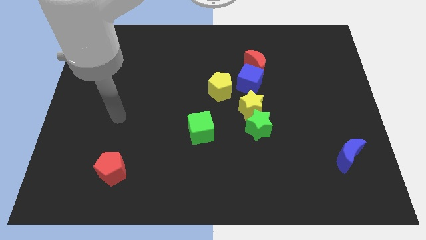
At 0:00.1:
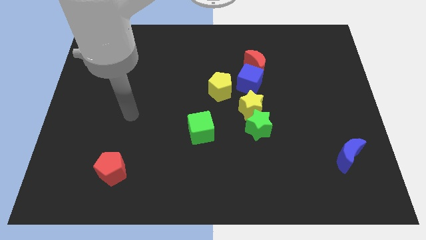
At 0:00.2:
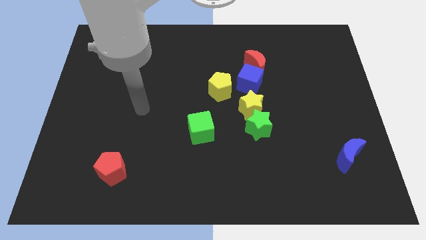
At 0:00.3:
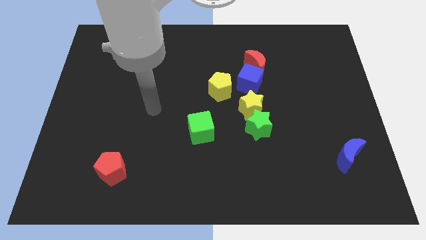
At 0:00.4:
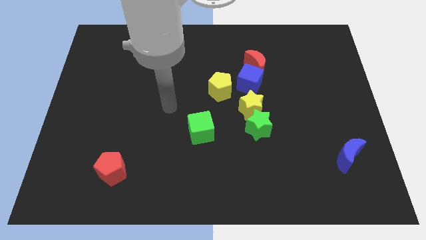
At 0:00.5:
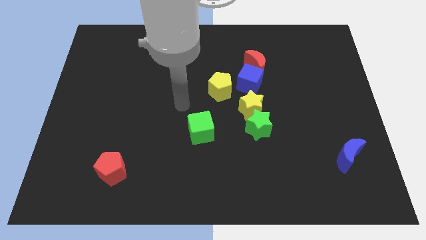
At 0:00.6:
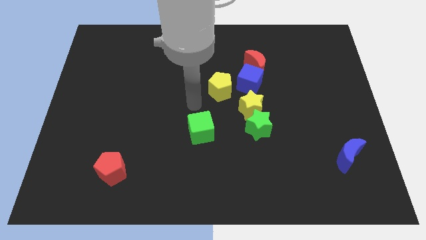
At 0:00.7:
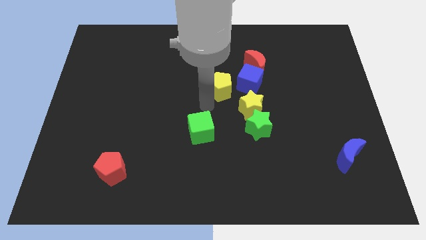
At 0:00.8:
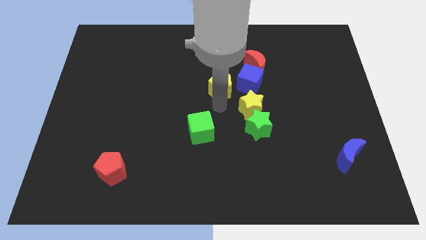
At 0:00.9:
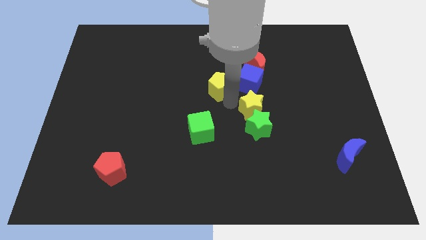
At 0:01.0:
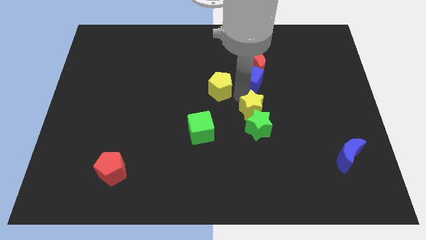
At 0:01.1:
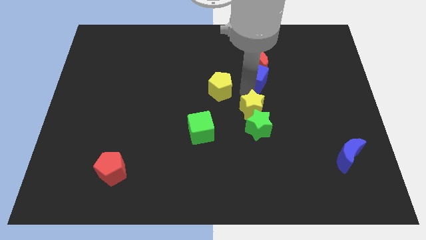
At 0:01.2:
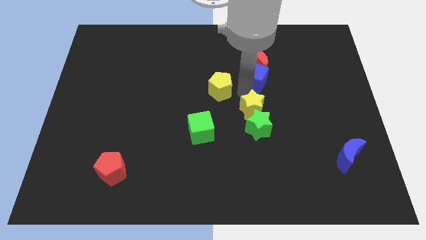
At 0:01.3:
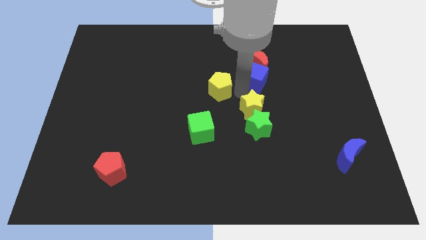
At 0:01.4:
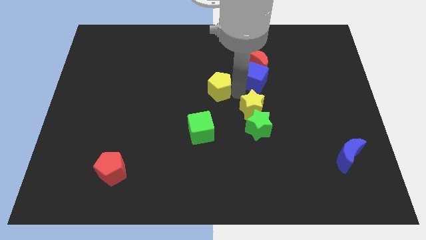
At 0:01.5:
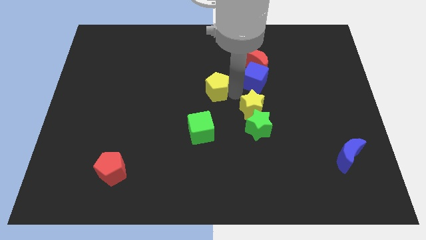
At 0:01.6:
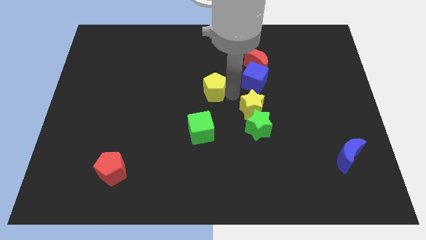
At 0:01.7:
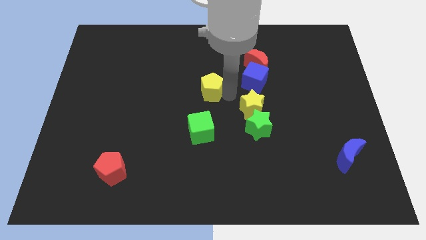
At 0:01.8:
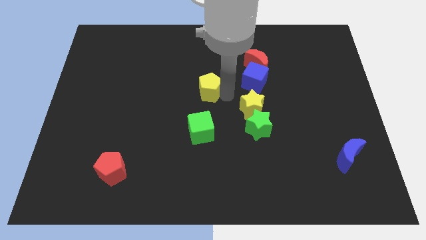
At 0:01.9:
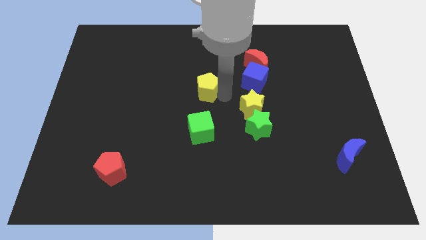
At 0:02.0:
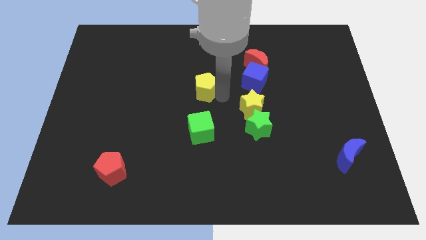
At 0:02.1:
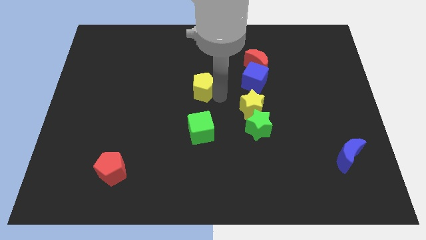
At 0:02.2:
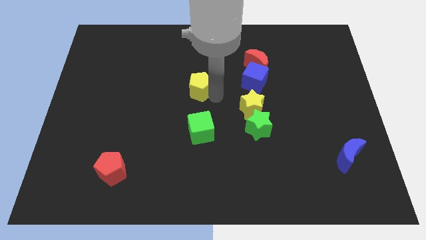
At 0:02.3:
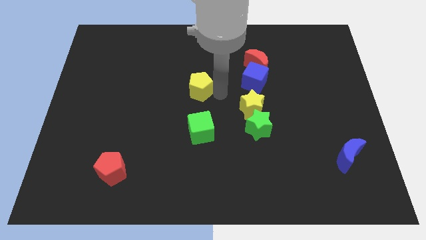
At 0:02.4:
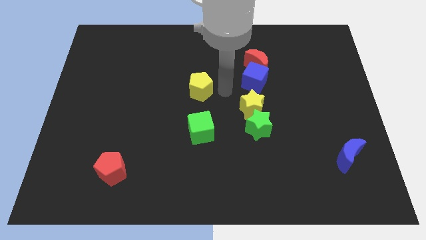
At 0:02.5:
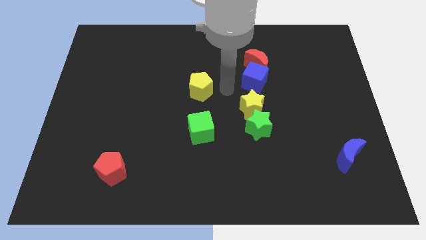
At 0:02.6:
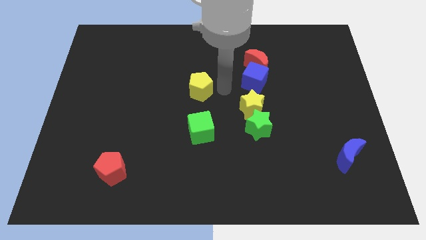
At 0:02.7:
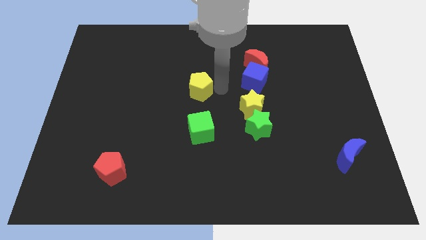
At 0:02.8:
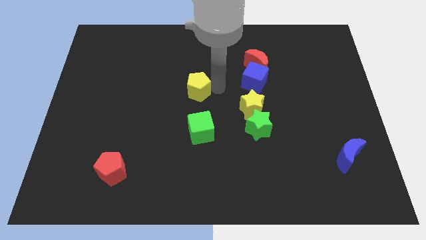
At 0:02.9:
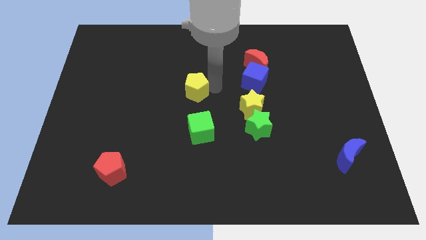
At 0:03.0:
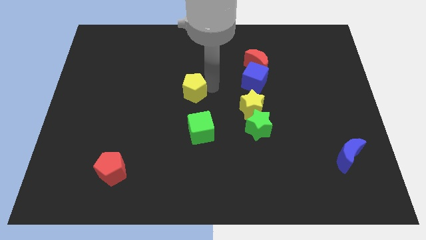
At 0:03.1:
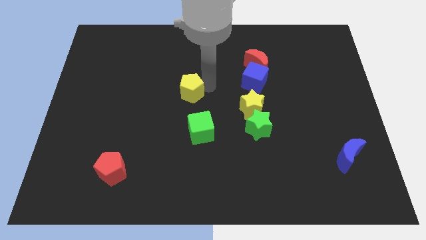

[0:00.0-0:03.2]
slightly slide the yellow pentagon to the left

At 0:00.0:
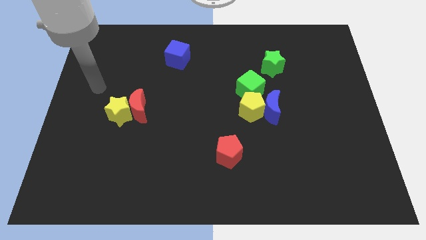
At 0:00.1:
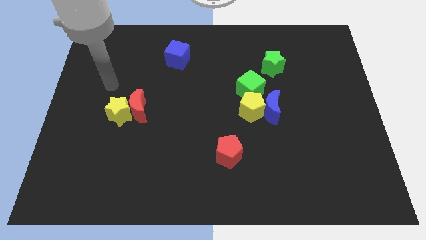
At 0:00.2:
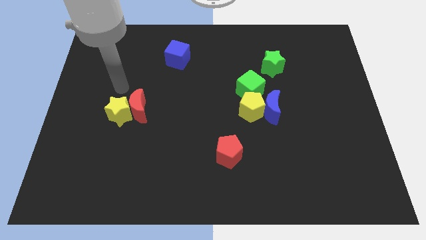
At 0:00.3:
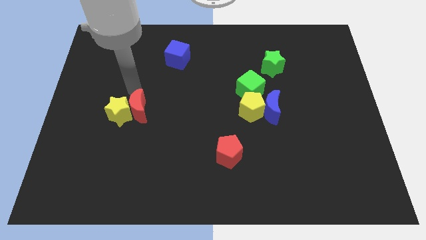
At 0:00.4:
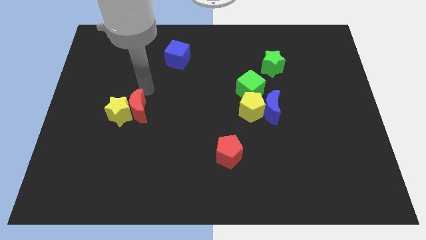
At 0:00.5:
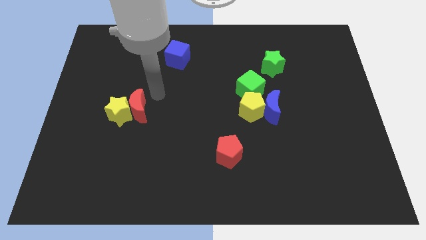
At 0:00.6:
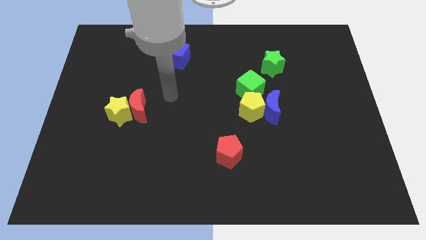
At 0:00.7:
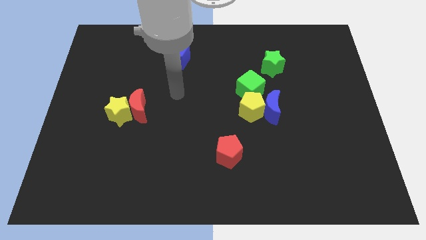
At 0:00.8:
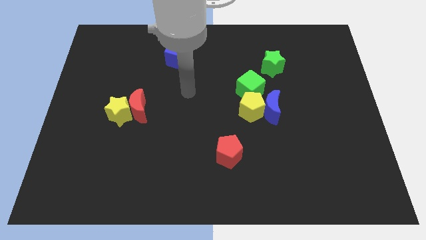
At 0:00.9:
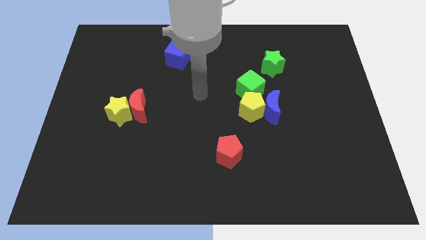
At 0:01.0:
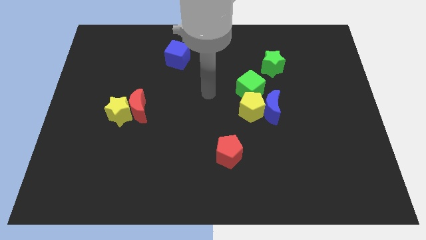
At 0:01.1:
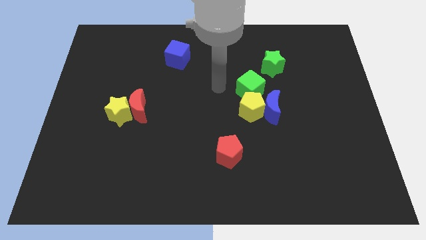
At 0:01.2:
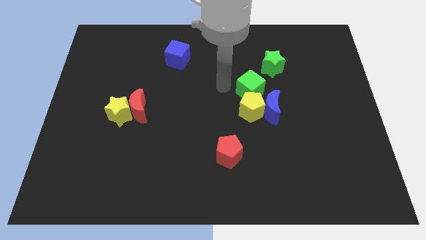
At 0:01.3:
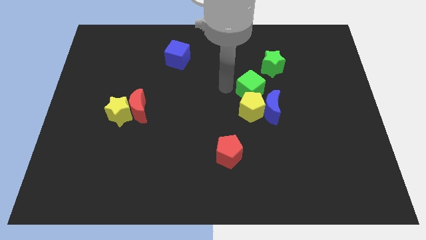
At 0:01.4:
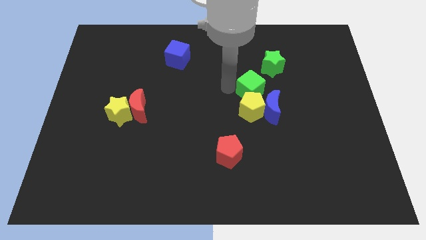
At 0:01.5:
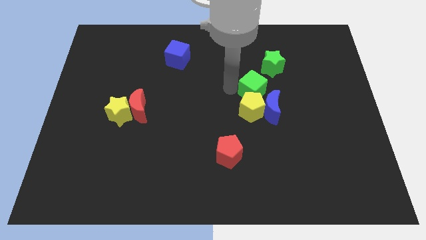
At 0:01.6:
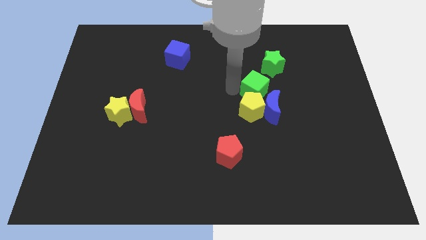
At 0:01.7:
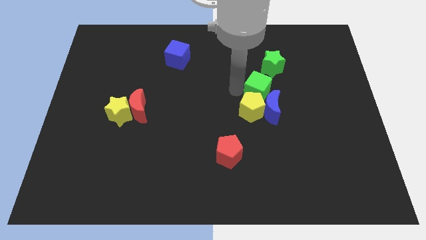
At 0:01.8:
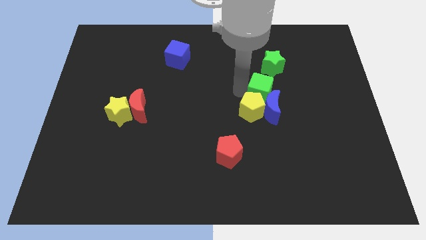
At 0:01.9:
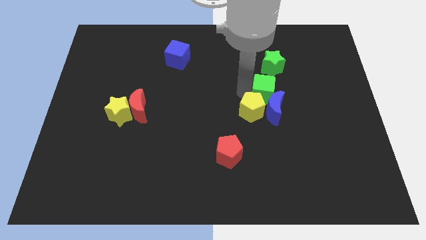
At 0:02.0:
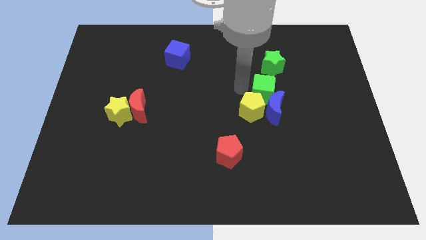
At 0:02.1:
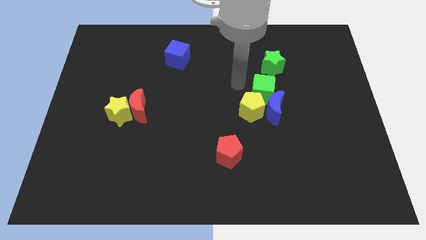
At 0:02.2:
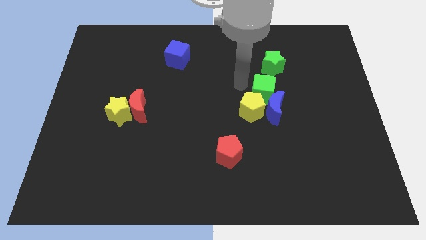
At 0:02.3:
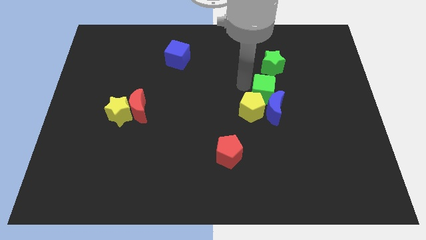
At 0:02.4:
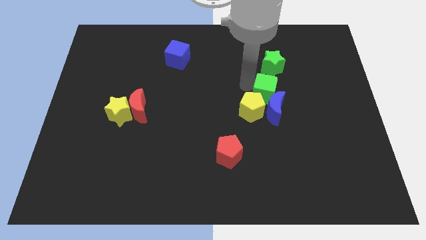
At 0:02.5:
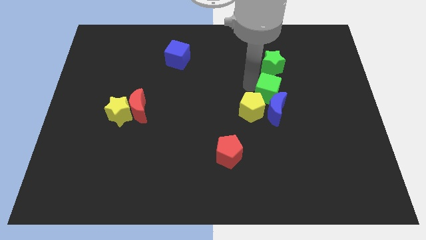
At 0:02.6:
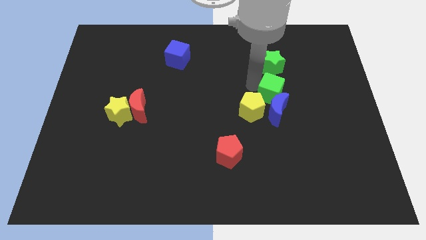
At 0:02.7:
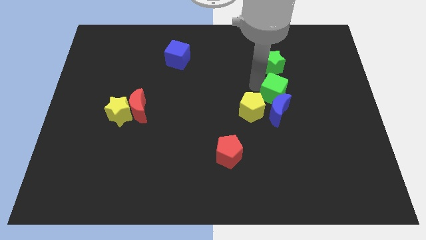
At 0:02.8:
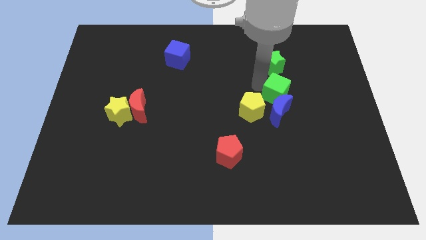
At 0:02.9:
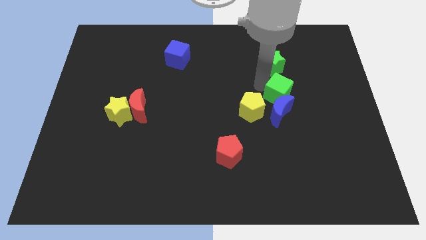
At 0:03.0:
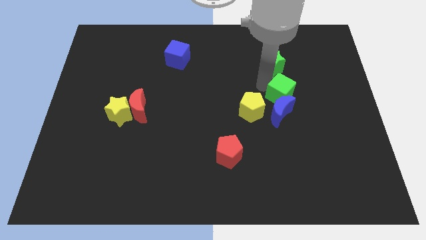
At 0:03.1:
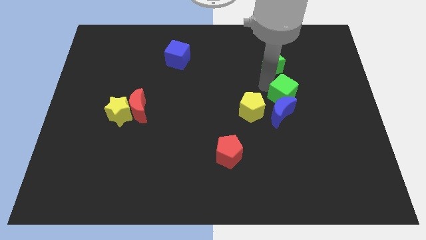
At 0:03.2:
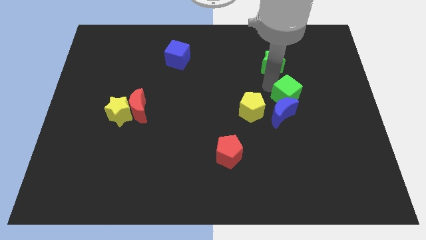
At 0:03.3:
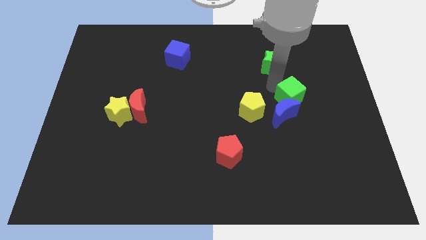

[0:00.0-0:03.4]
push the green cube a little bit down and then to the right

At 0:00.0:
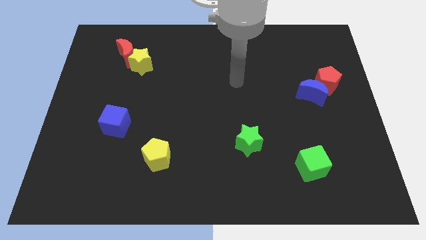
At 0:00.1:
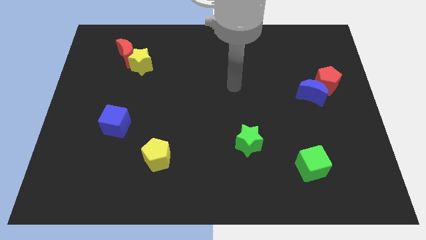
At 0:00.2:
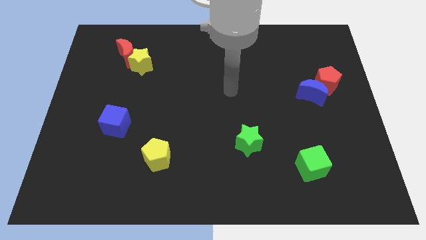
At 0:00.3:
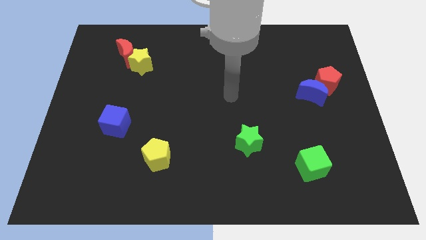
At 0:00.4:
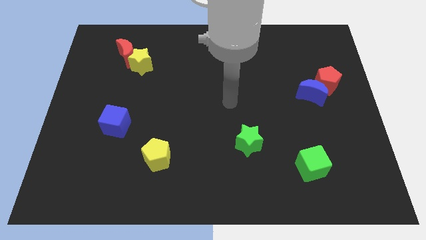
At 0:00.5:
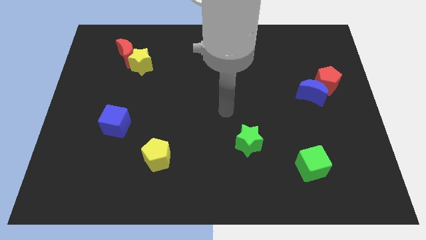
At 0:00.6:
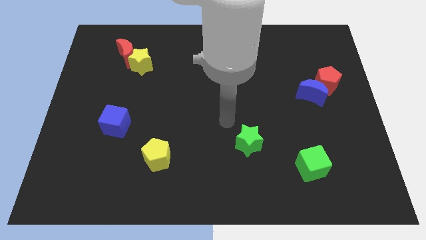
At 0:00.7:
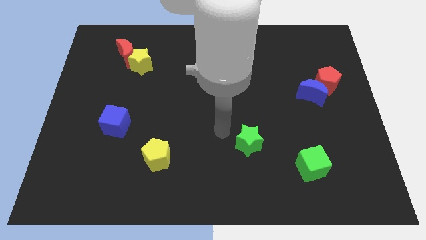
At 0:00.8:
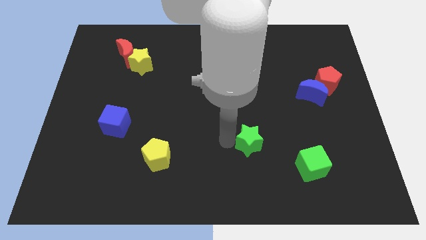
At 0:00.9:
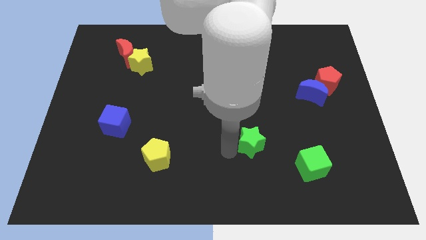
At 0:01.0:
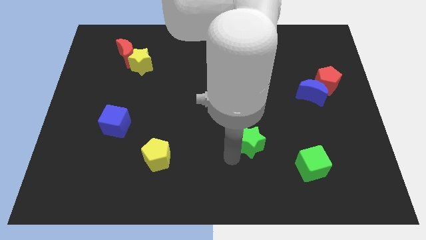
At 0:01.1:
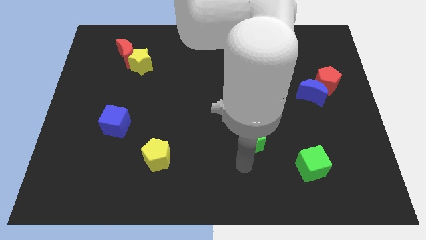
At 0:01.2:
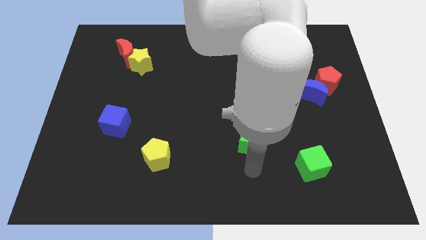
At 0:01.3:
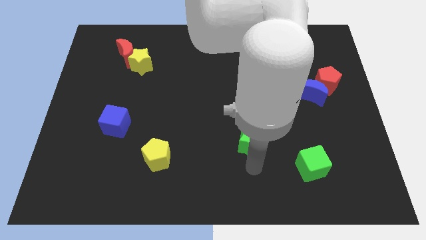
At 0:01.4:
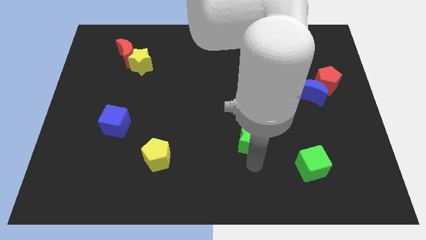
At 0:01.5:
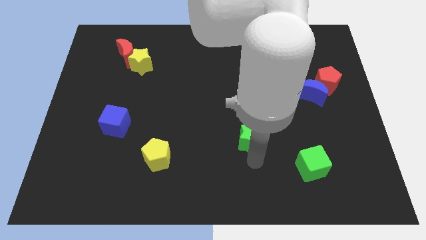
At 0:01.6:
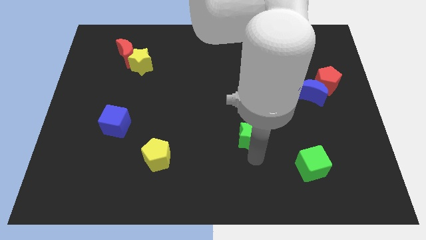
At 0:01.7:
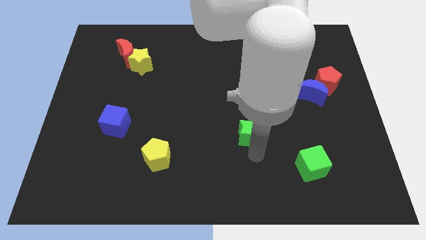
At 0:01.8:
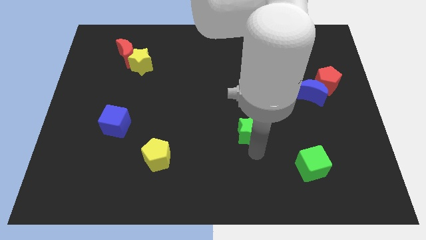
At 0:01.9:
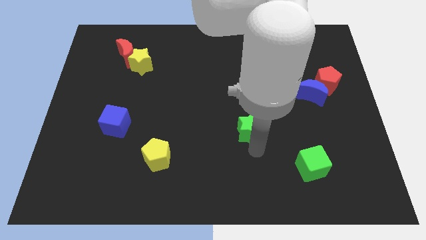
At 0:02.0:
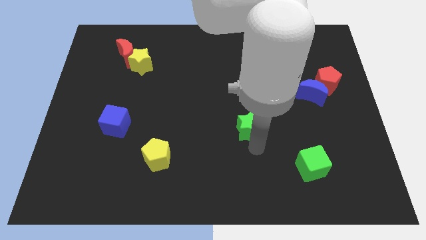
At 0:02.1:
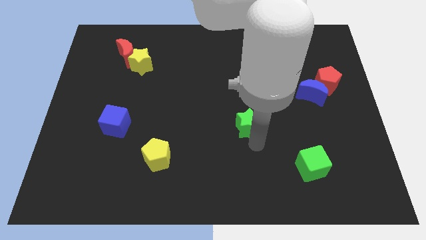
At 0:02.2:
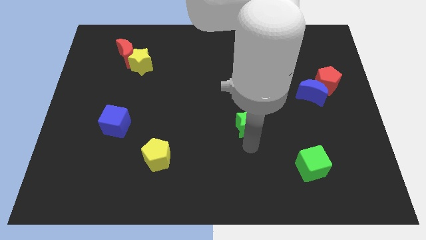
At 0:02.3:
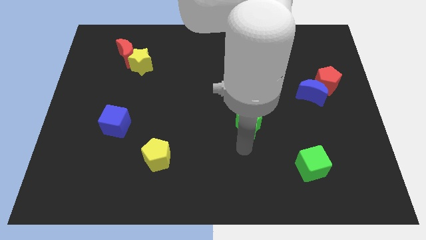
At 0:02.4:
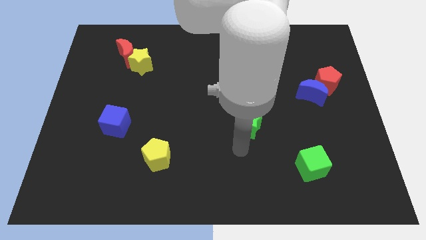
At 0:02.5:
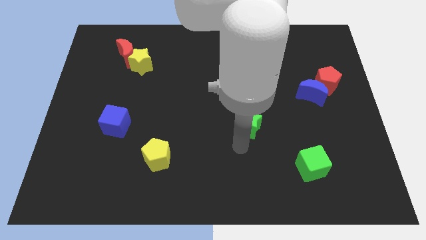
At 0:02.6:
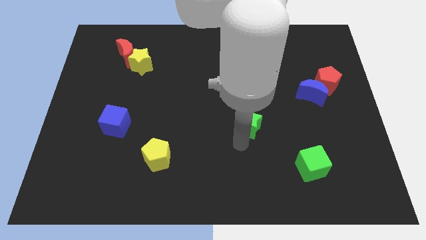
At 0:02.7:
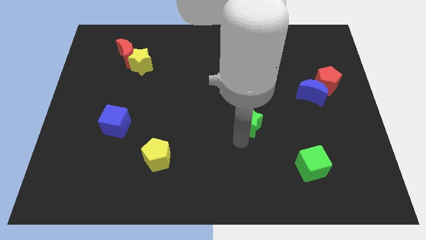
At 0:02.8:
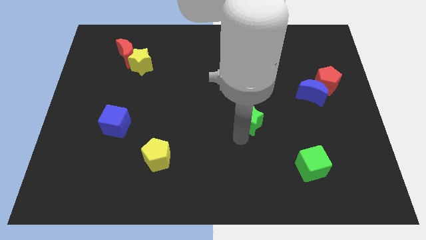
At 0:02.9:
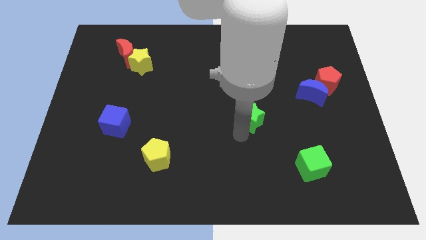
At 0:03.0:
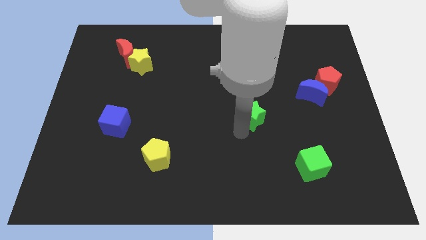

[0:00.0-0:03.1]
move the green star upwards slightly
